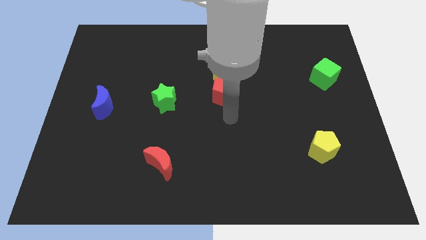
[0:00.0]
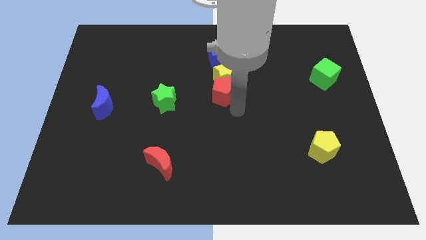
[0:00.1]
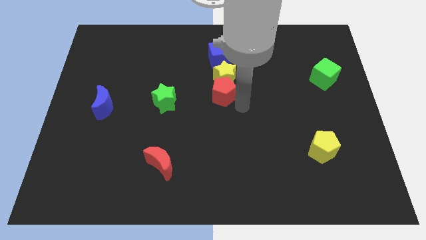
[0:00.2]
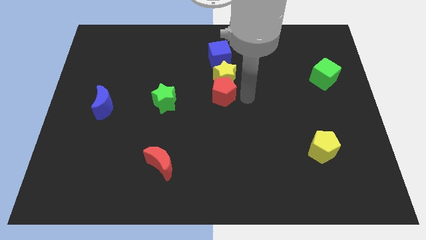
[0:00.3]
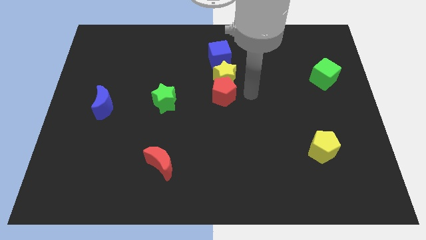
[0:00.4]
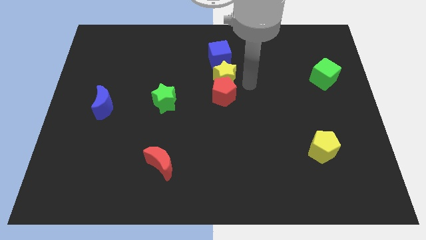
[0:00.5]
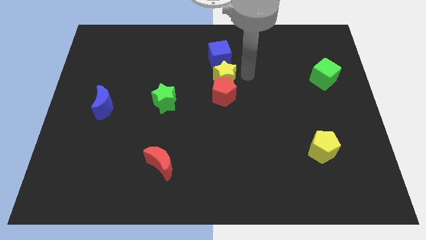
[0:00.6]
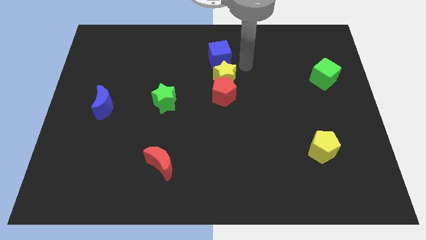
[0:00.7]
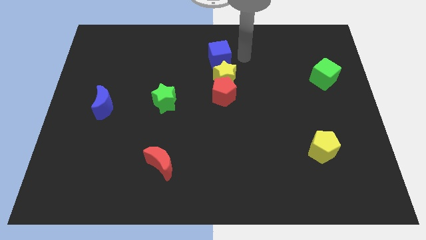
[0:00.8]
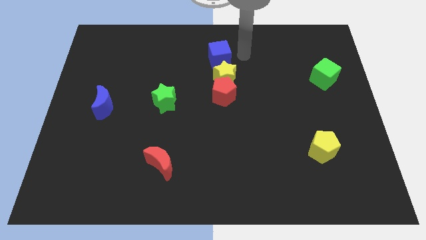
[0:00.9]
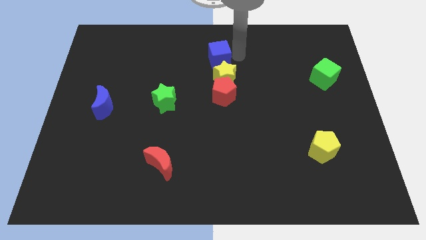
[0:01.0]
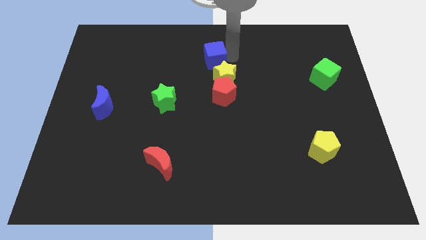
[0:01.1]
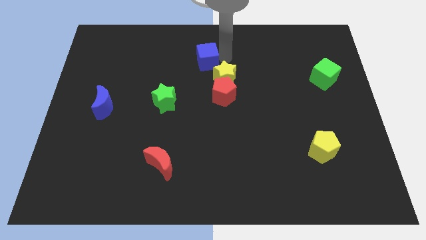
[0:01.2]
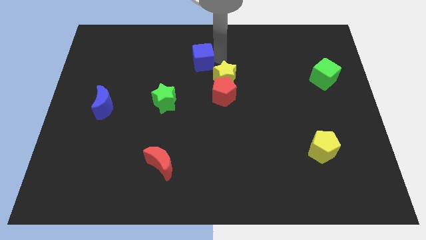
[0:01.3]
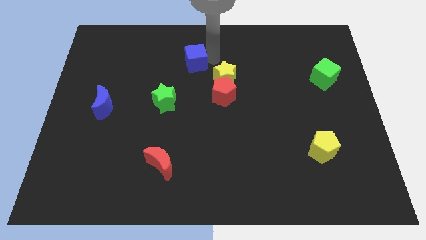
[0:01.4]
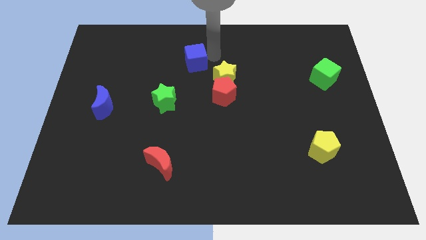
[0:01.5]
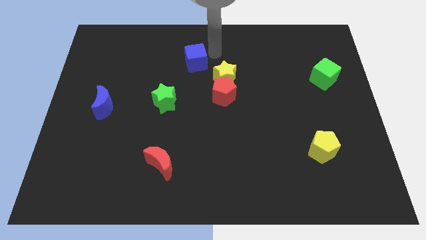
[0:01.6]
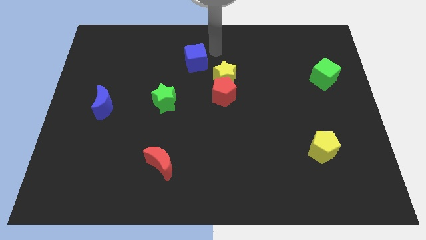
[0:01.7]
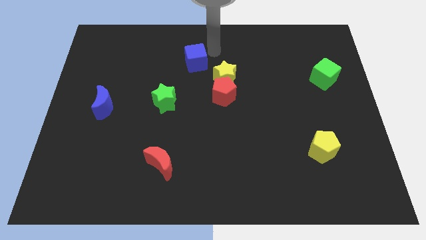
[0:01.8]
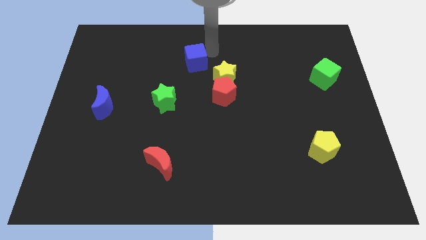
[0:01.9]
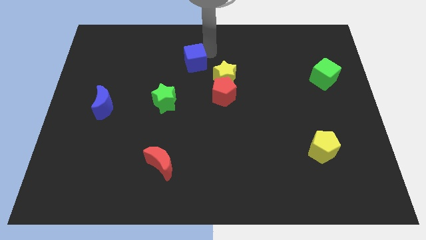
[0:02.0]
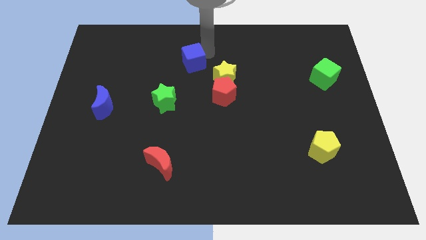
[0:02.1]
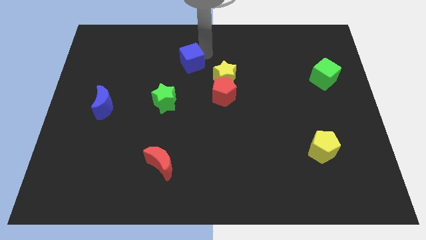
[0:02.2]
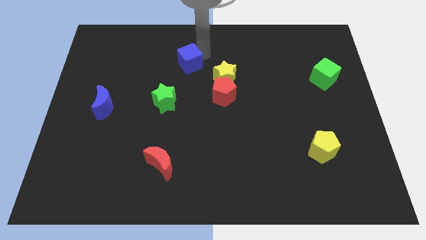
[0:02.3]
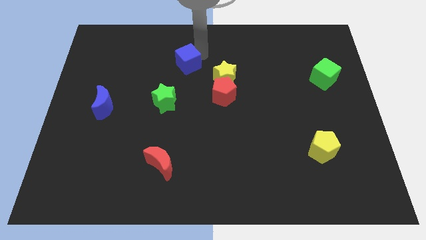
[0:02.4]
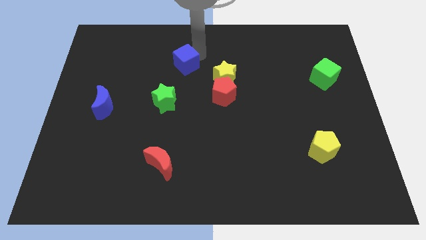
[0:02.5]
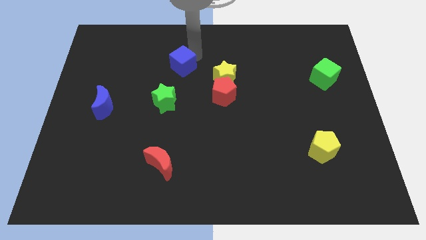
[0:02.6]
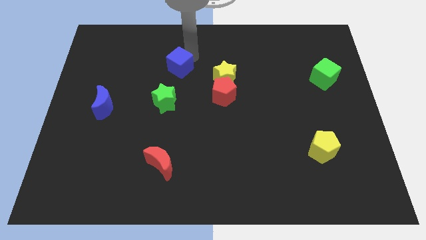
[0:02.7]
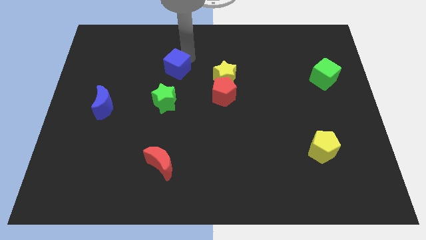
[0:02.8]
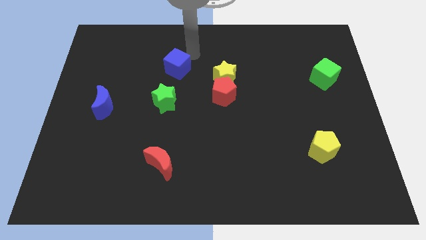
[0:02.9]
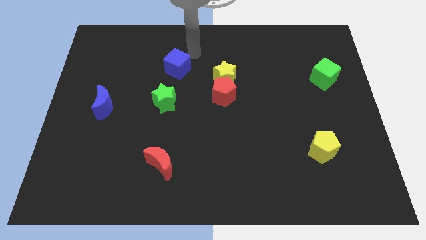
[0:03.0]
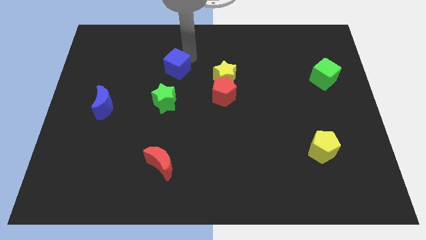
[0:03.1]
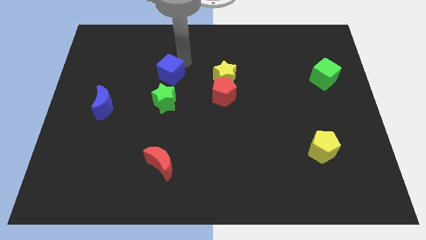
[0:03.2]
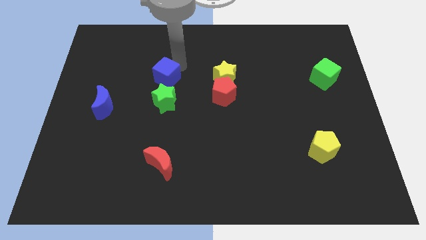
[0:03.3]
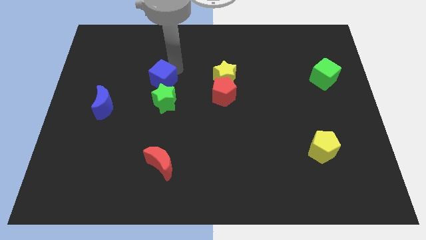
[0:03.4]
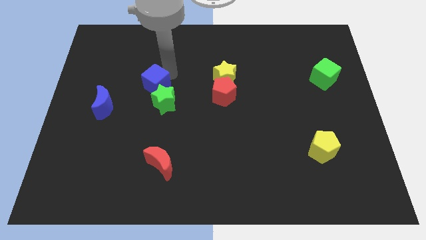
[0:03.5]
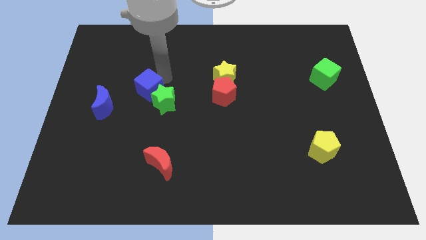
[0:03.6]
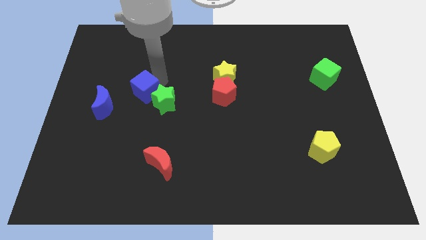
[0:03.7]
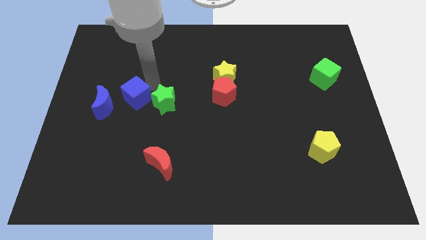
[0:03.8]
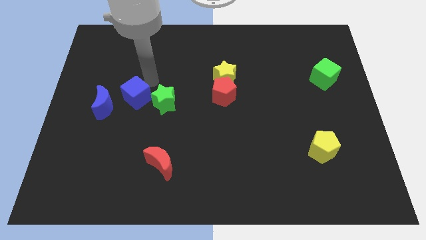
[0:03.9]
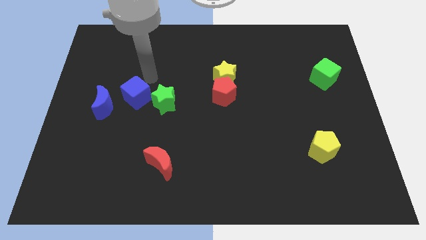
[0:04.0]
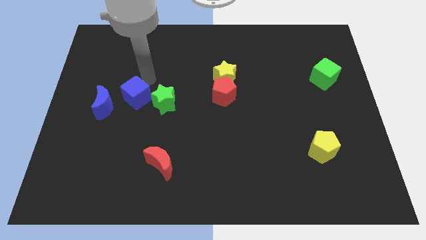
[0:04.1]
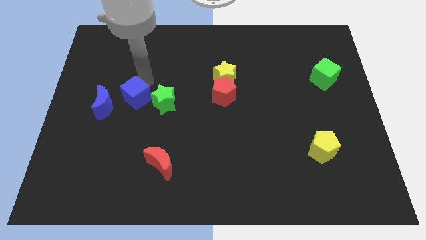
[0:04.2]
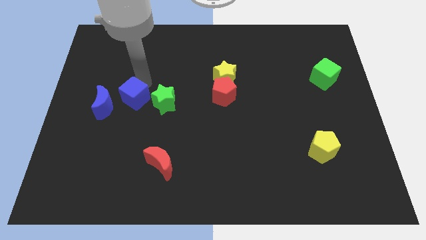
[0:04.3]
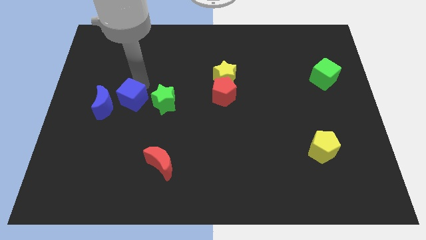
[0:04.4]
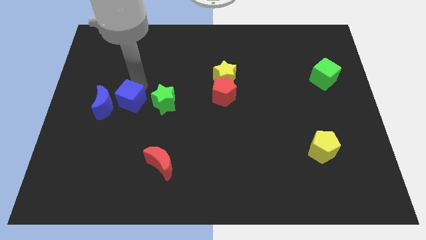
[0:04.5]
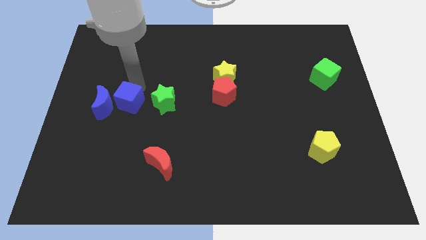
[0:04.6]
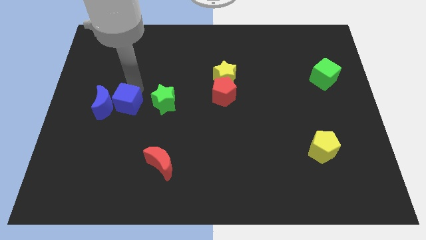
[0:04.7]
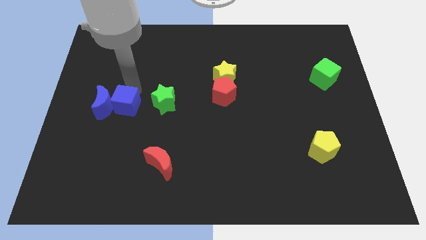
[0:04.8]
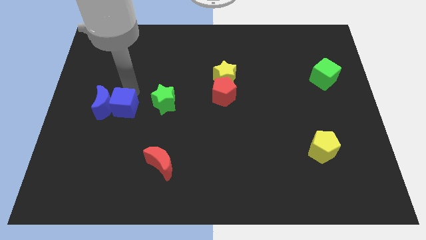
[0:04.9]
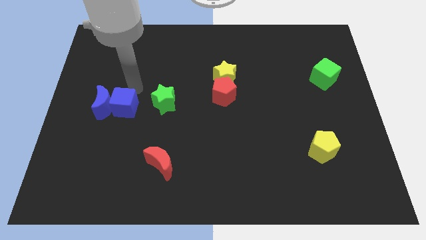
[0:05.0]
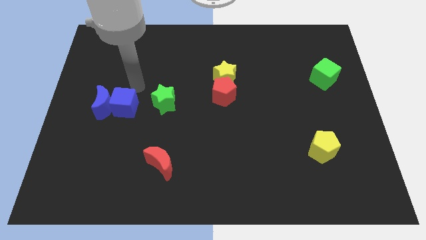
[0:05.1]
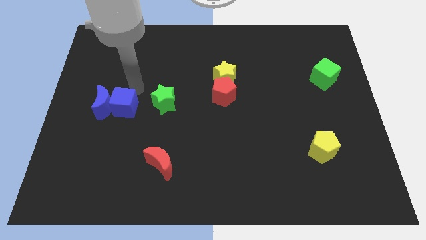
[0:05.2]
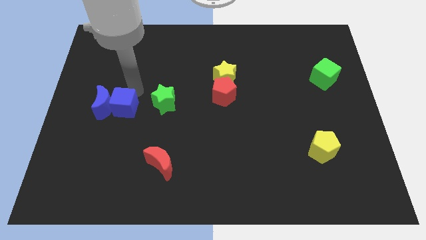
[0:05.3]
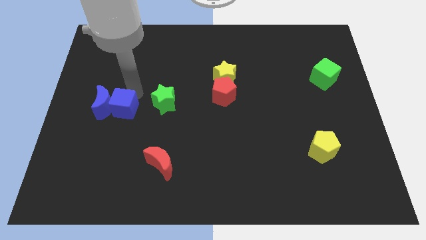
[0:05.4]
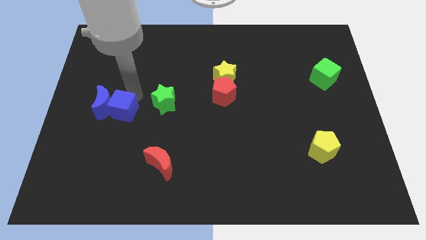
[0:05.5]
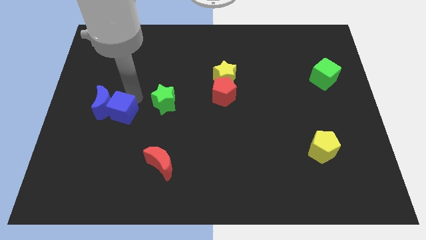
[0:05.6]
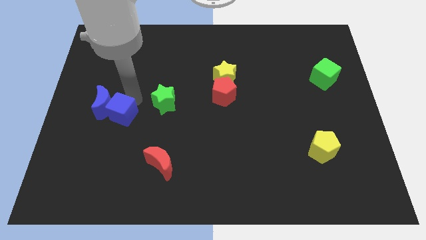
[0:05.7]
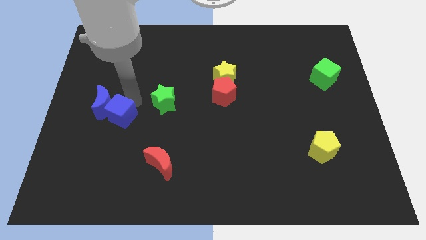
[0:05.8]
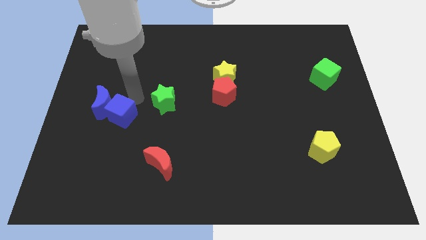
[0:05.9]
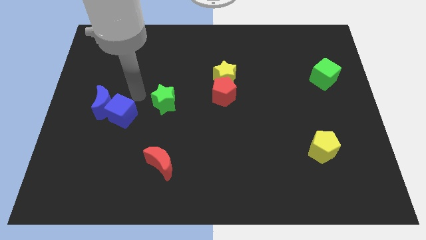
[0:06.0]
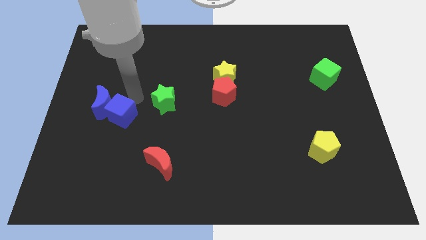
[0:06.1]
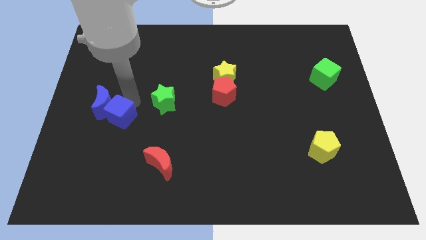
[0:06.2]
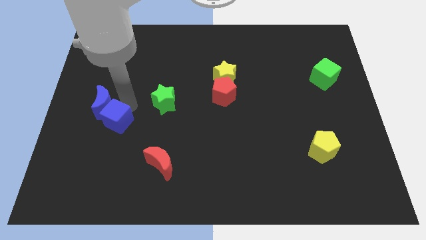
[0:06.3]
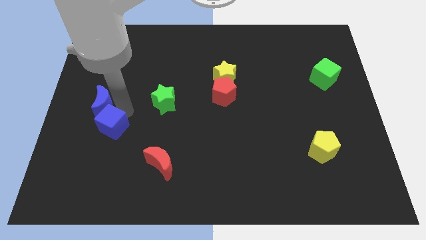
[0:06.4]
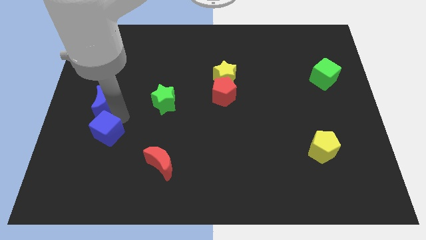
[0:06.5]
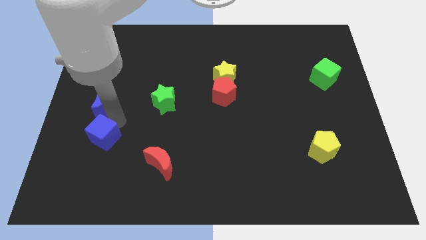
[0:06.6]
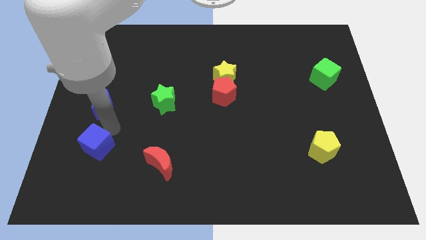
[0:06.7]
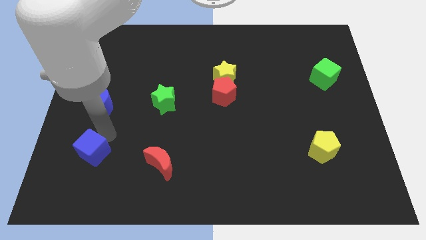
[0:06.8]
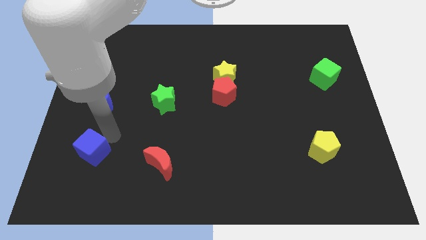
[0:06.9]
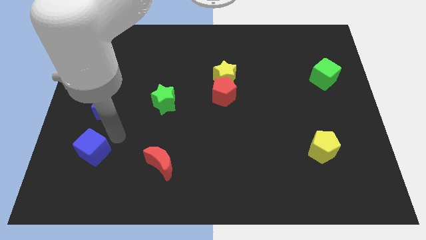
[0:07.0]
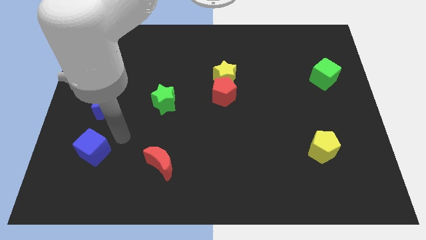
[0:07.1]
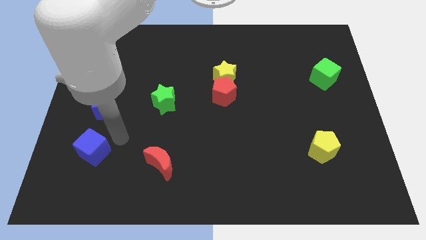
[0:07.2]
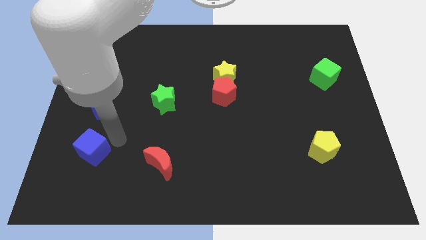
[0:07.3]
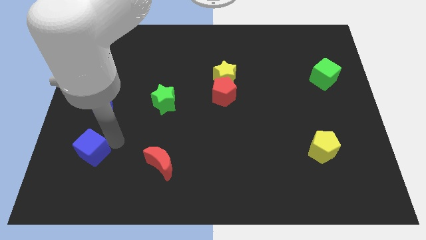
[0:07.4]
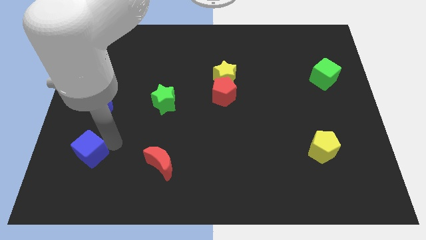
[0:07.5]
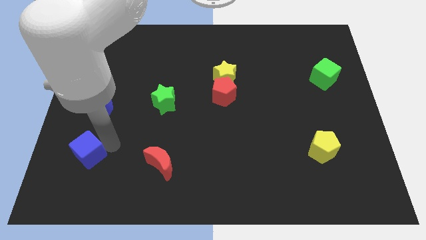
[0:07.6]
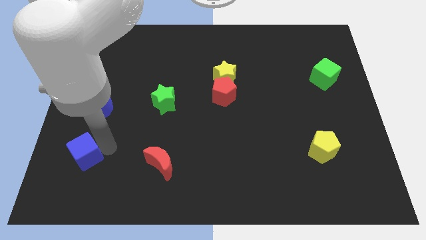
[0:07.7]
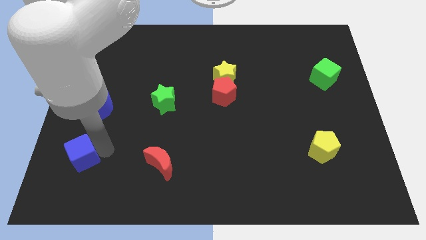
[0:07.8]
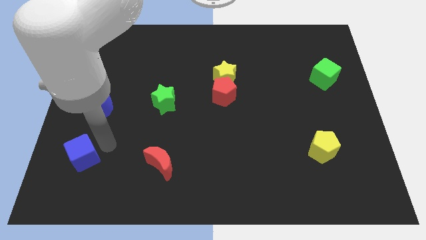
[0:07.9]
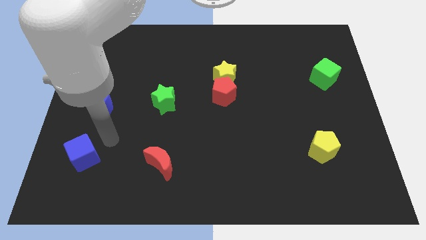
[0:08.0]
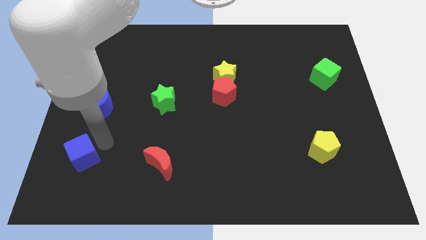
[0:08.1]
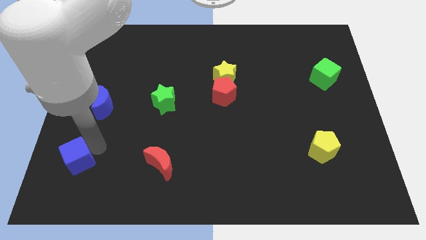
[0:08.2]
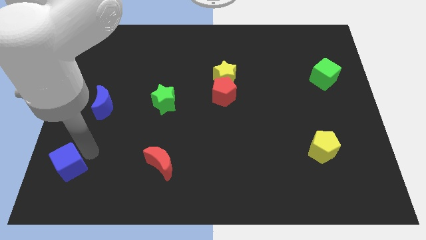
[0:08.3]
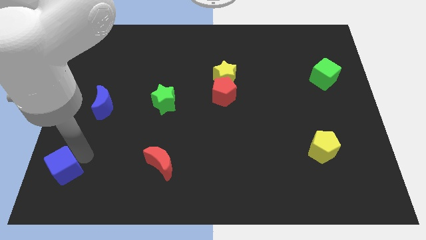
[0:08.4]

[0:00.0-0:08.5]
slide the blue cube to the bottom left corner
